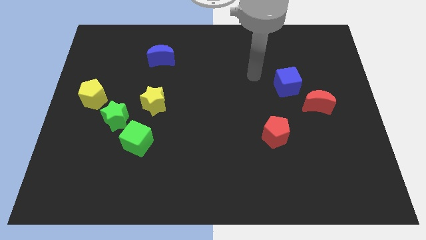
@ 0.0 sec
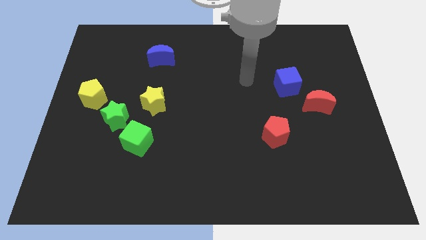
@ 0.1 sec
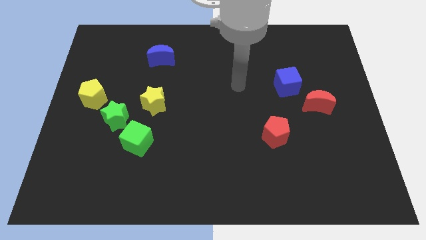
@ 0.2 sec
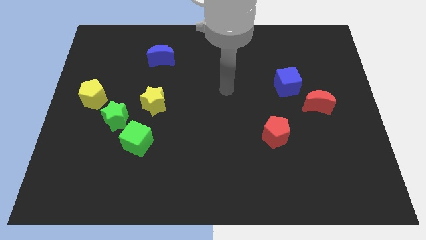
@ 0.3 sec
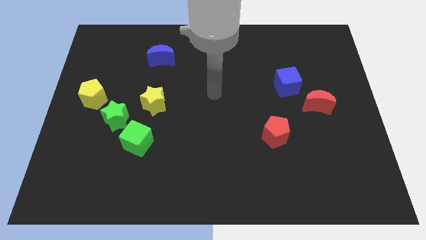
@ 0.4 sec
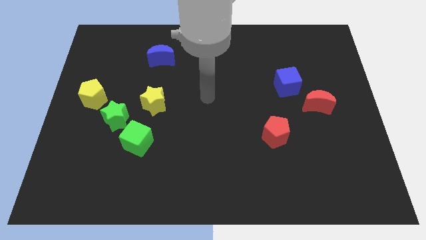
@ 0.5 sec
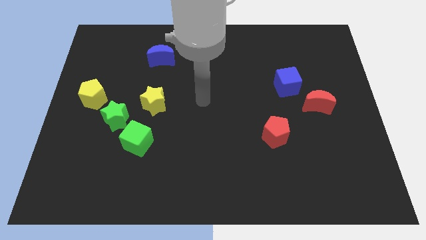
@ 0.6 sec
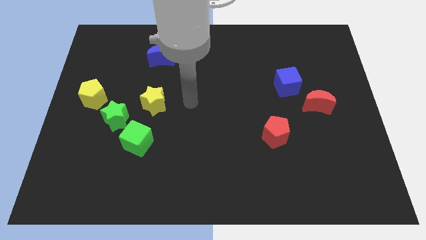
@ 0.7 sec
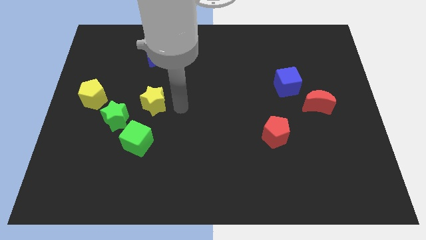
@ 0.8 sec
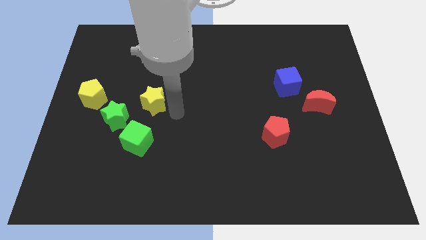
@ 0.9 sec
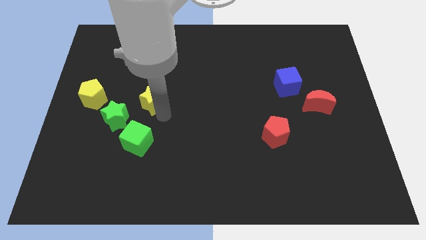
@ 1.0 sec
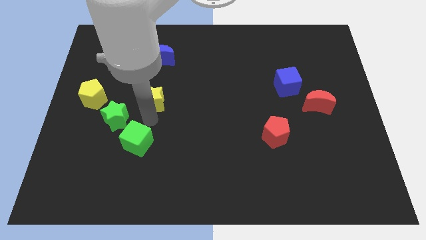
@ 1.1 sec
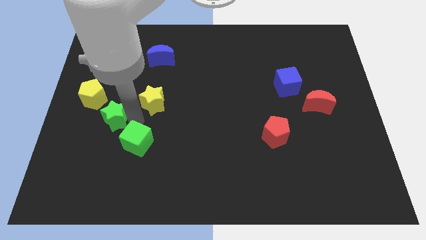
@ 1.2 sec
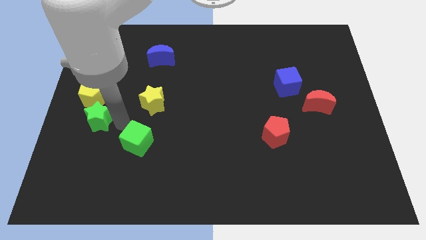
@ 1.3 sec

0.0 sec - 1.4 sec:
separate the green cube from the green star

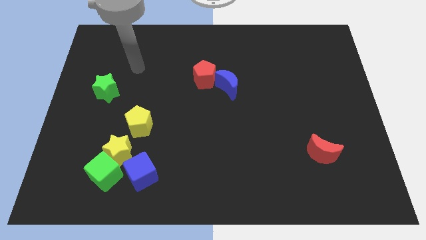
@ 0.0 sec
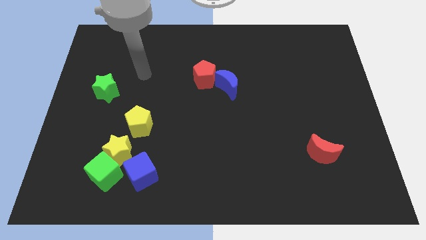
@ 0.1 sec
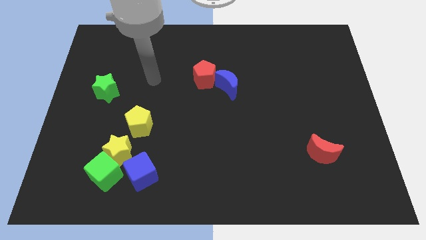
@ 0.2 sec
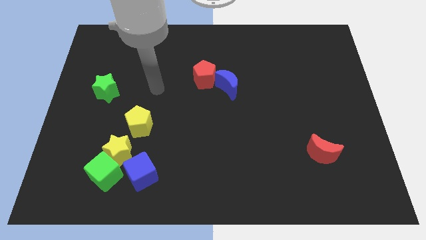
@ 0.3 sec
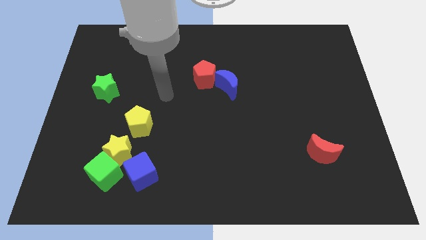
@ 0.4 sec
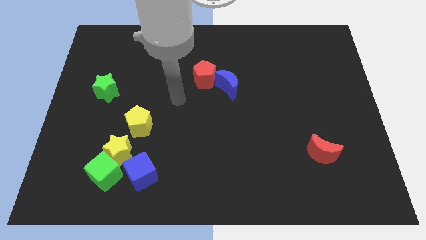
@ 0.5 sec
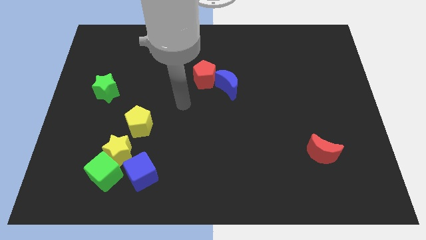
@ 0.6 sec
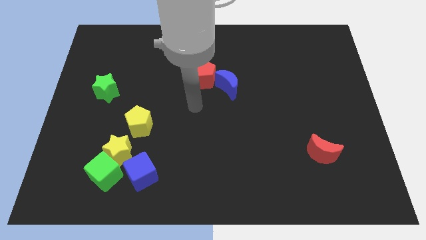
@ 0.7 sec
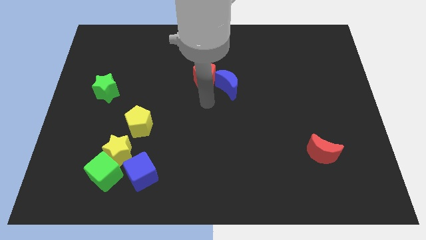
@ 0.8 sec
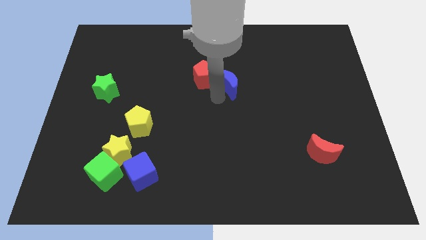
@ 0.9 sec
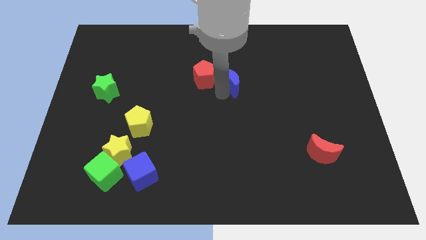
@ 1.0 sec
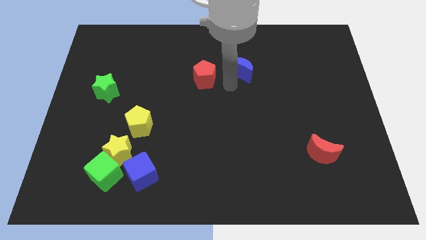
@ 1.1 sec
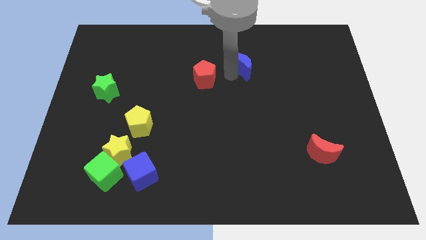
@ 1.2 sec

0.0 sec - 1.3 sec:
separate the red pentagon from the blue moon

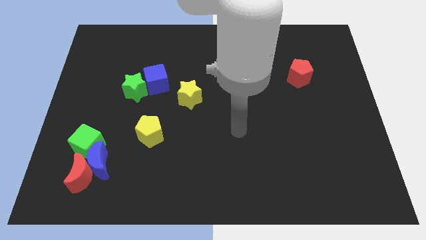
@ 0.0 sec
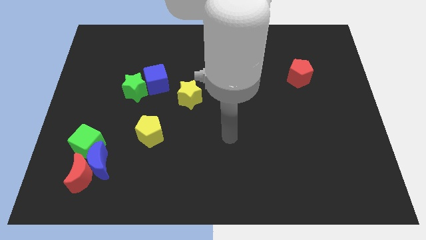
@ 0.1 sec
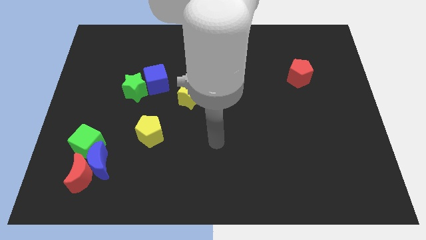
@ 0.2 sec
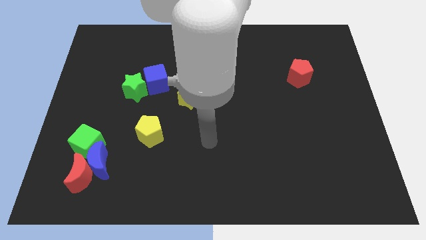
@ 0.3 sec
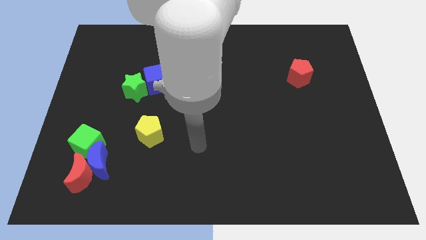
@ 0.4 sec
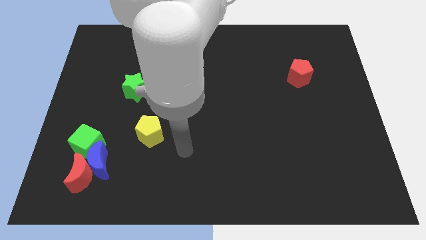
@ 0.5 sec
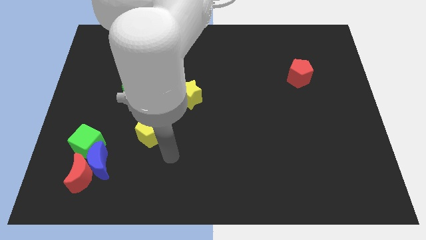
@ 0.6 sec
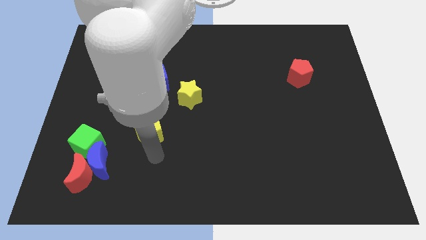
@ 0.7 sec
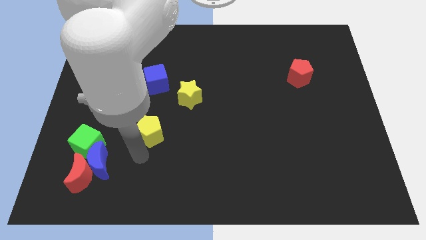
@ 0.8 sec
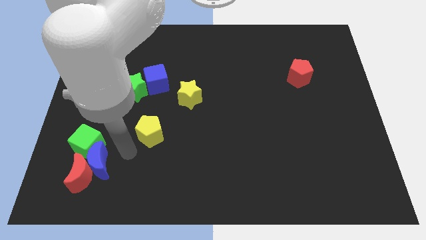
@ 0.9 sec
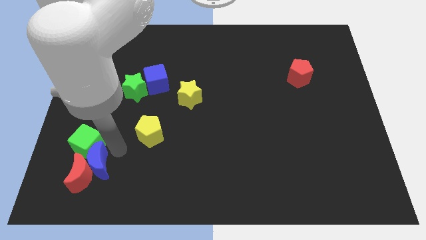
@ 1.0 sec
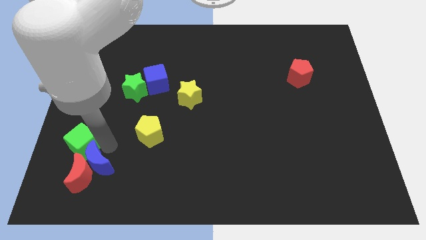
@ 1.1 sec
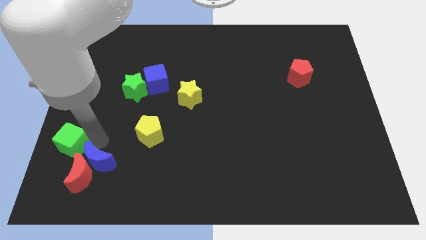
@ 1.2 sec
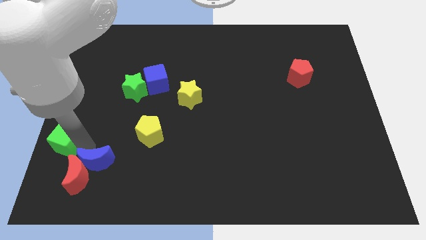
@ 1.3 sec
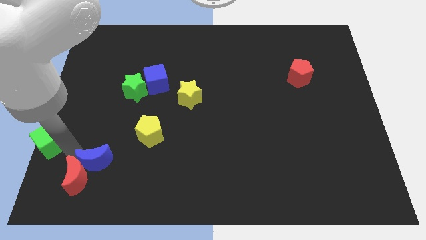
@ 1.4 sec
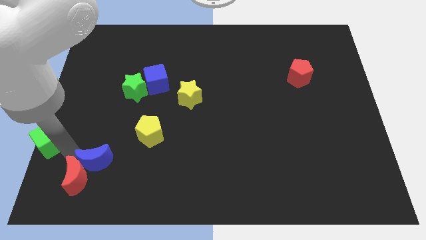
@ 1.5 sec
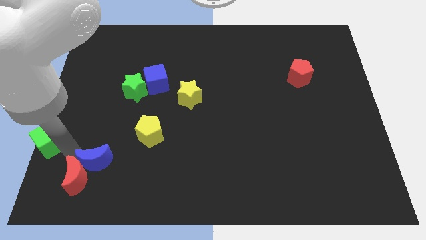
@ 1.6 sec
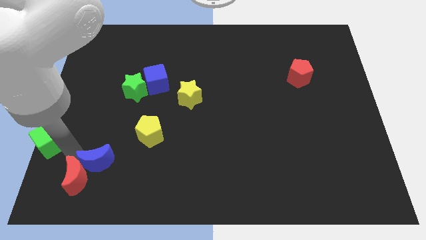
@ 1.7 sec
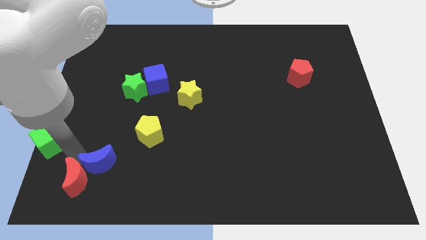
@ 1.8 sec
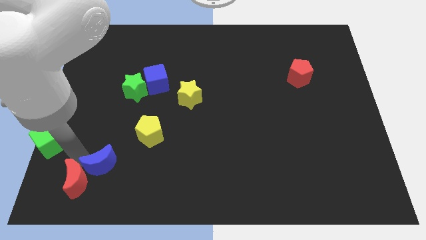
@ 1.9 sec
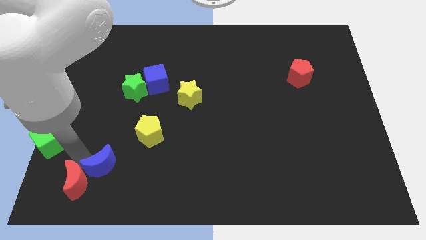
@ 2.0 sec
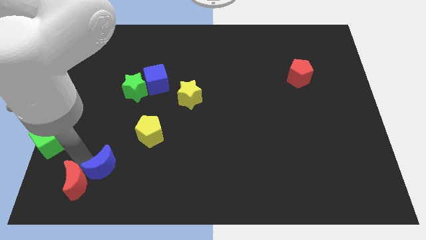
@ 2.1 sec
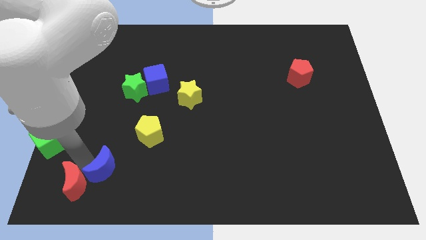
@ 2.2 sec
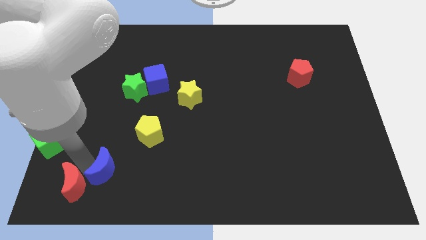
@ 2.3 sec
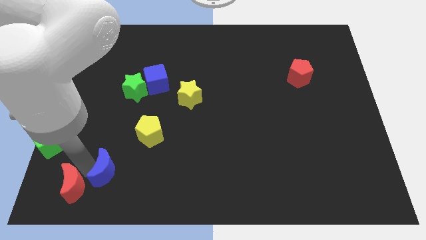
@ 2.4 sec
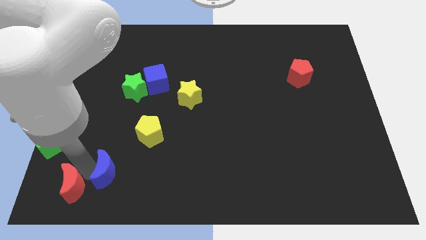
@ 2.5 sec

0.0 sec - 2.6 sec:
separate the blue moon from the red moon and green cube

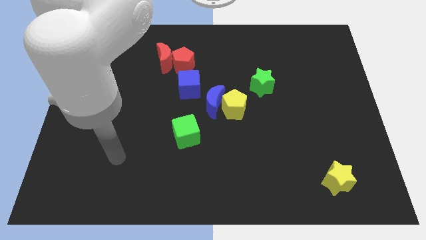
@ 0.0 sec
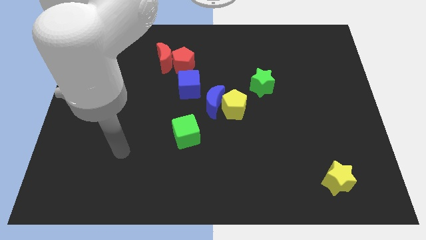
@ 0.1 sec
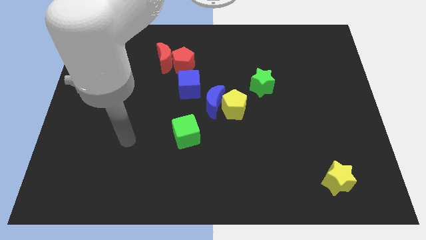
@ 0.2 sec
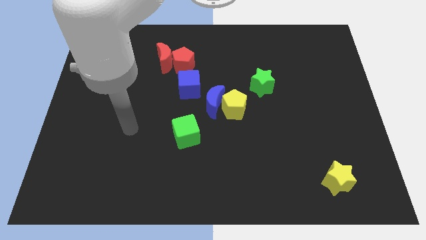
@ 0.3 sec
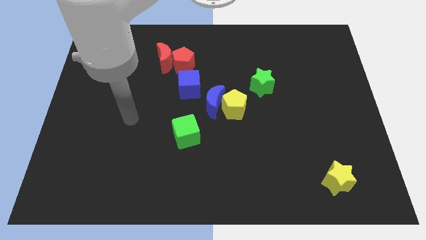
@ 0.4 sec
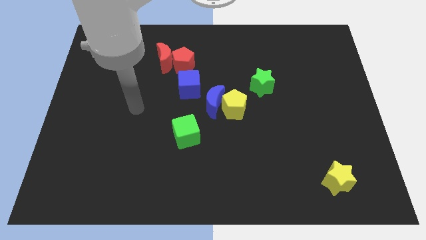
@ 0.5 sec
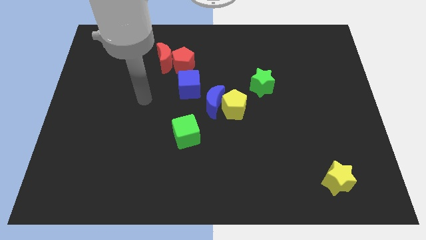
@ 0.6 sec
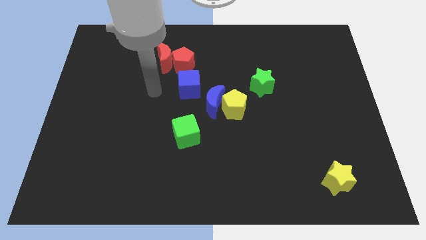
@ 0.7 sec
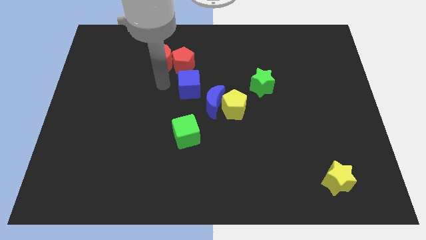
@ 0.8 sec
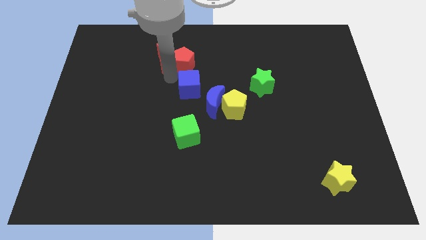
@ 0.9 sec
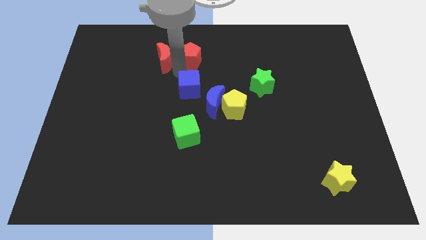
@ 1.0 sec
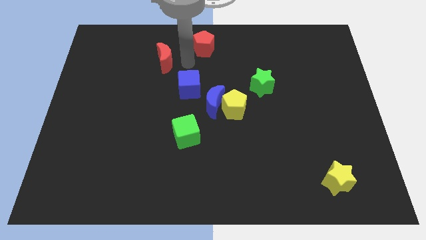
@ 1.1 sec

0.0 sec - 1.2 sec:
separate the red moon from the red pentagon

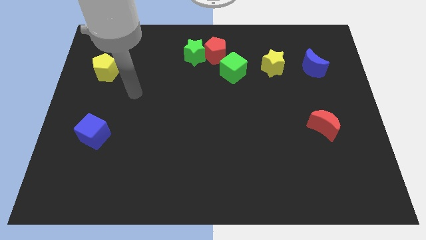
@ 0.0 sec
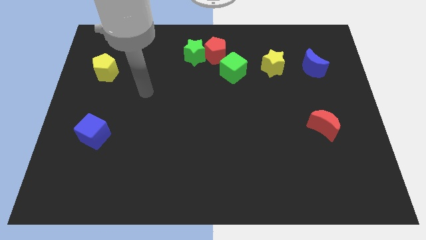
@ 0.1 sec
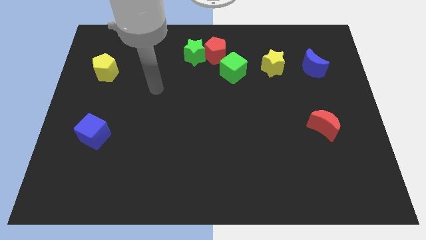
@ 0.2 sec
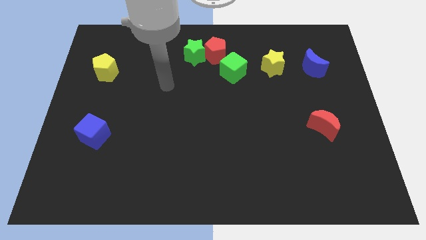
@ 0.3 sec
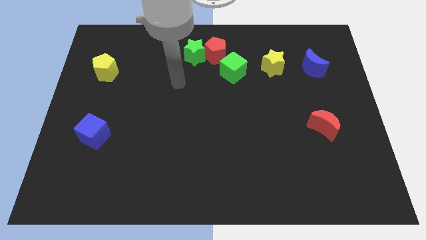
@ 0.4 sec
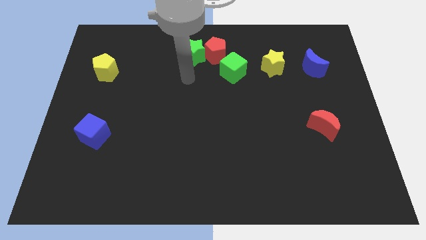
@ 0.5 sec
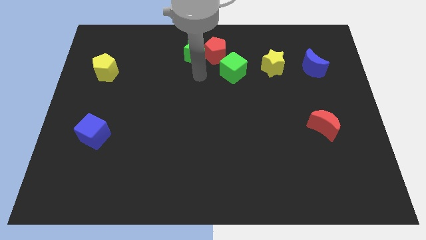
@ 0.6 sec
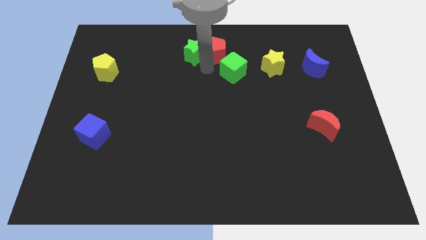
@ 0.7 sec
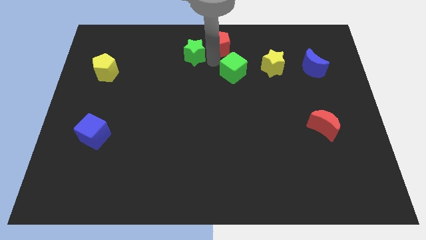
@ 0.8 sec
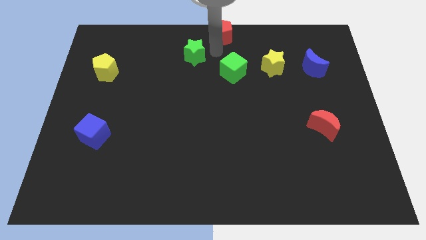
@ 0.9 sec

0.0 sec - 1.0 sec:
pull the green star apart from the red pentagon

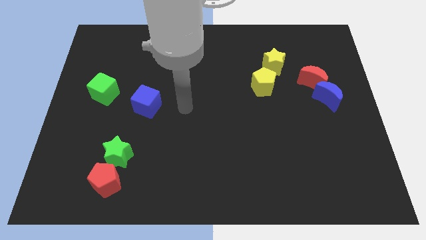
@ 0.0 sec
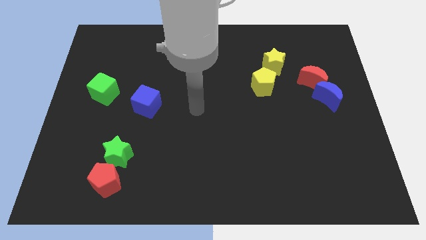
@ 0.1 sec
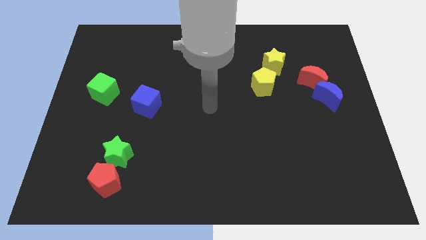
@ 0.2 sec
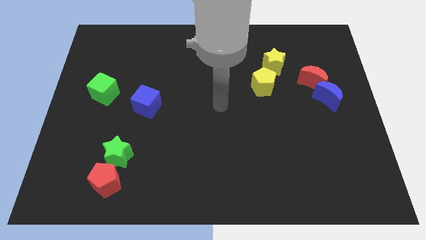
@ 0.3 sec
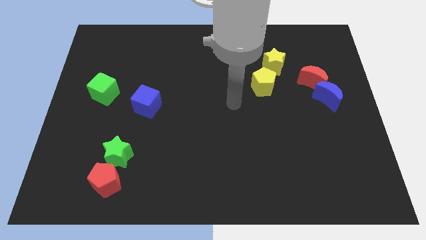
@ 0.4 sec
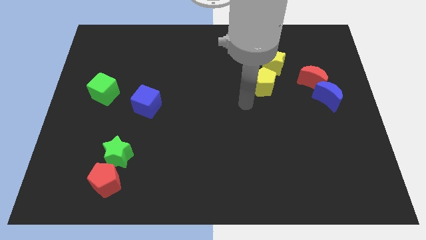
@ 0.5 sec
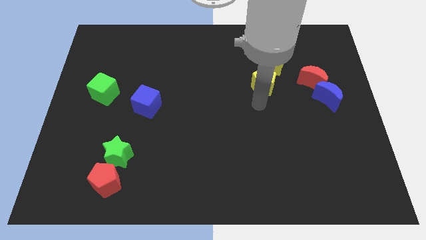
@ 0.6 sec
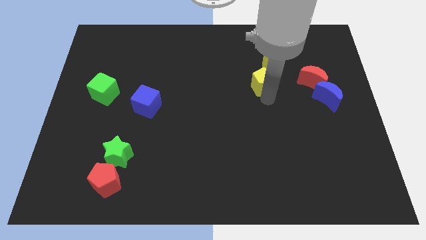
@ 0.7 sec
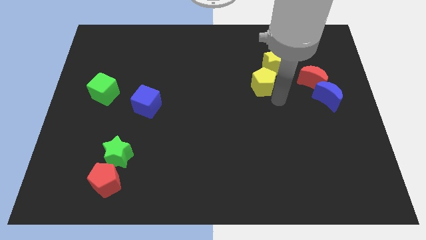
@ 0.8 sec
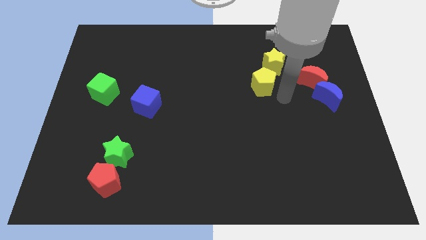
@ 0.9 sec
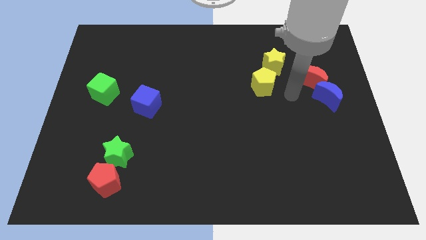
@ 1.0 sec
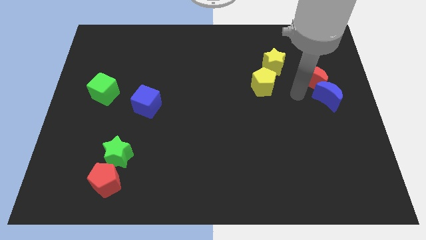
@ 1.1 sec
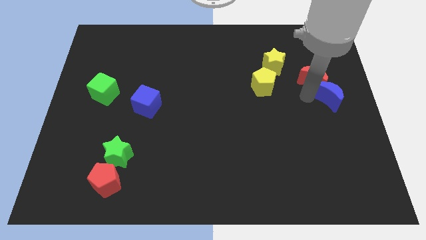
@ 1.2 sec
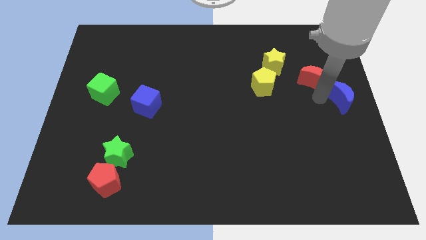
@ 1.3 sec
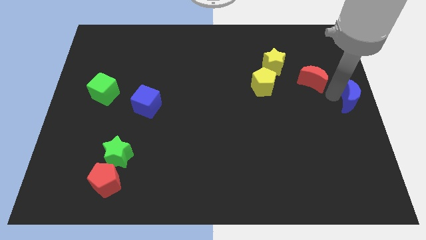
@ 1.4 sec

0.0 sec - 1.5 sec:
pull the red moon apart from the blue moon

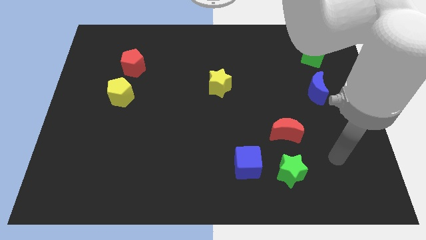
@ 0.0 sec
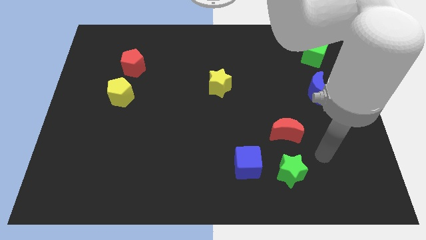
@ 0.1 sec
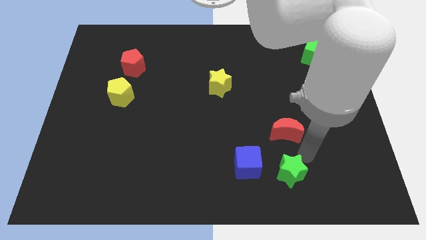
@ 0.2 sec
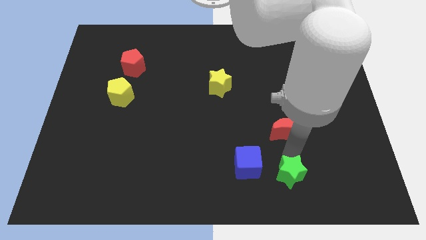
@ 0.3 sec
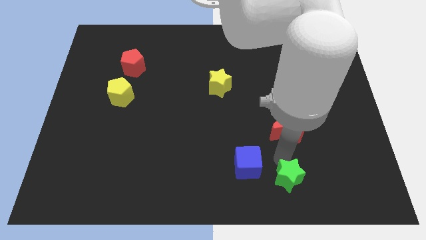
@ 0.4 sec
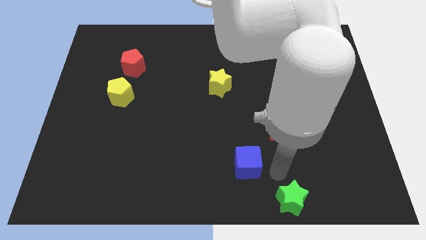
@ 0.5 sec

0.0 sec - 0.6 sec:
separate the blue cube from the green star
